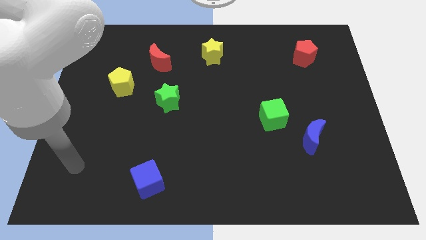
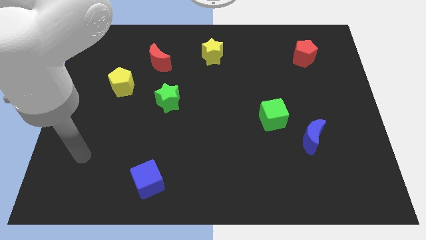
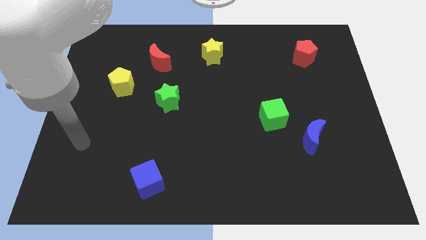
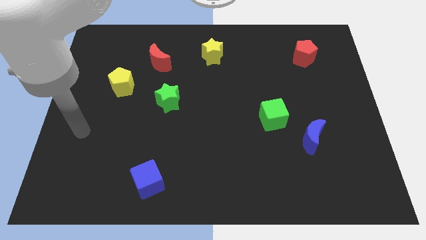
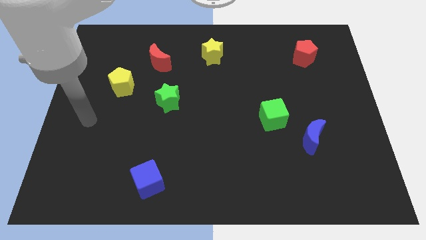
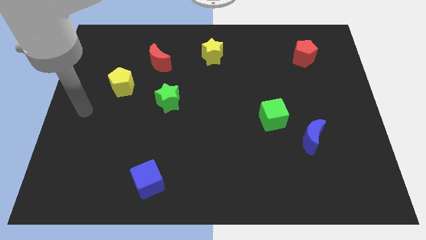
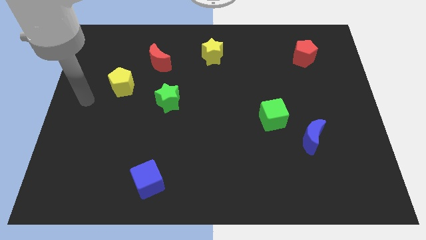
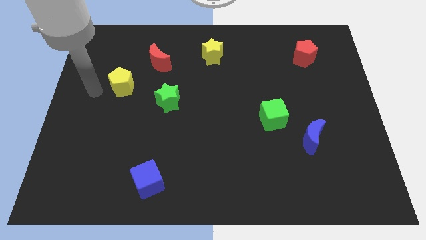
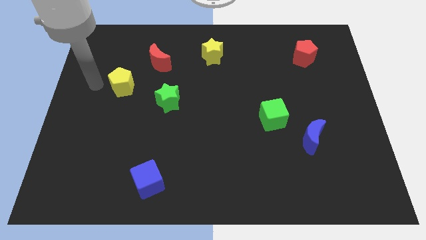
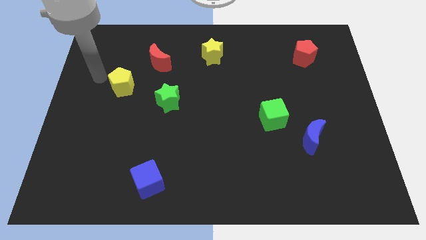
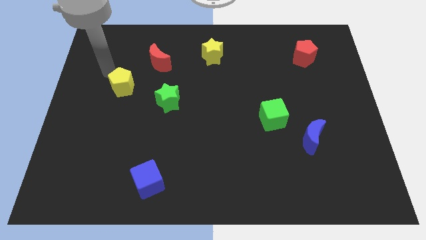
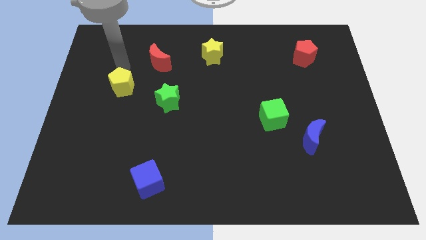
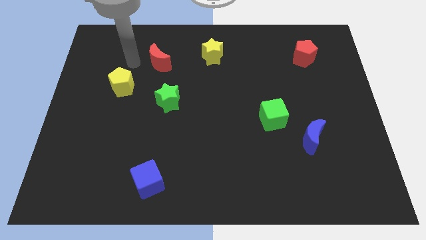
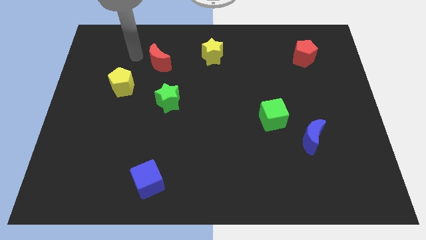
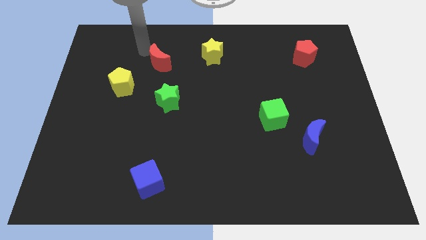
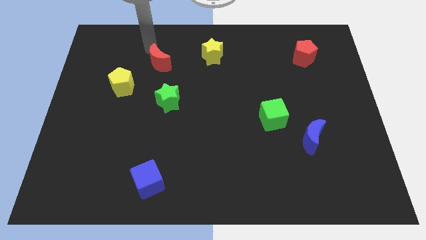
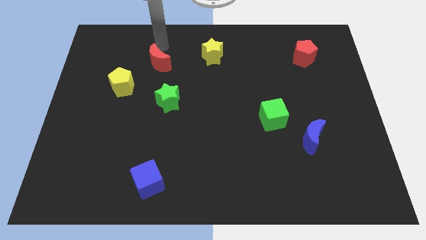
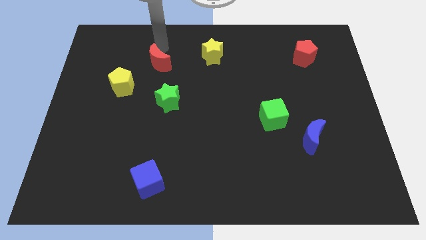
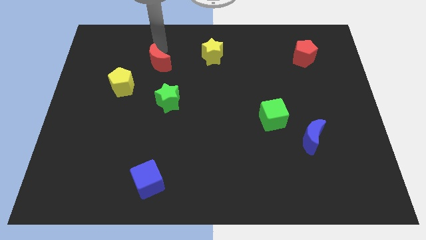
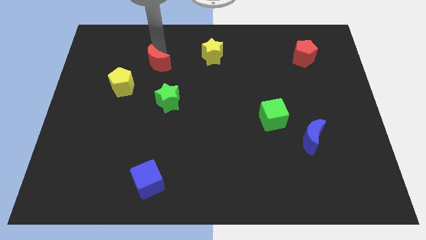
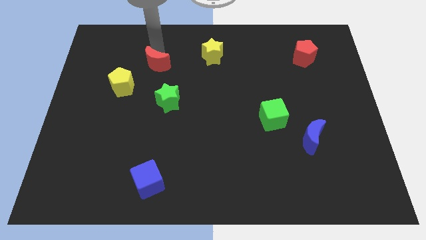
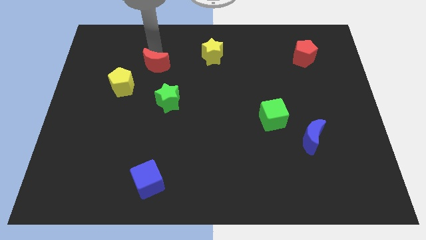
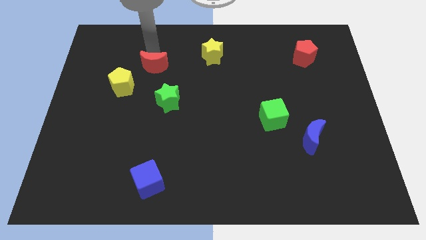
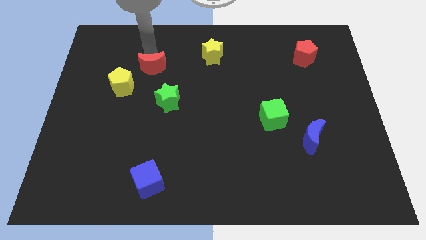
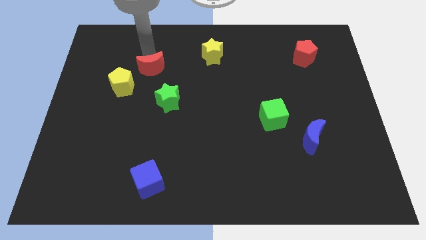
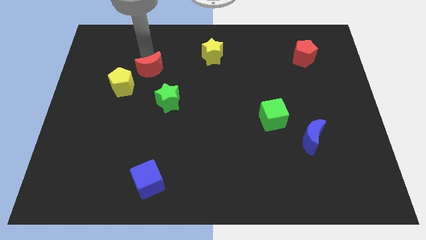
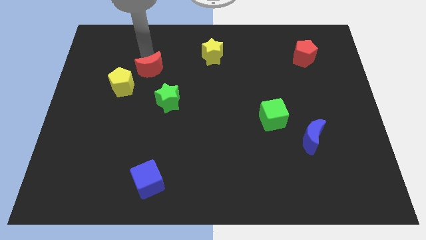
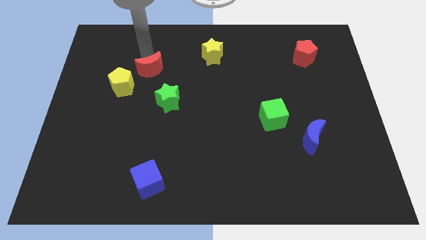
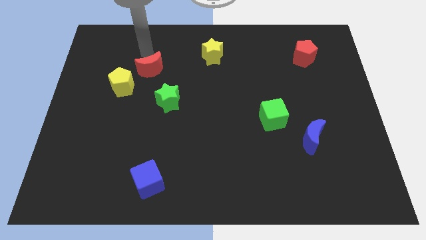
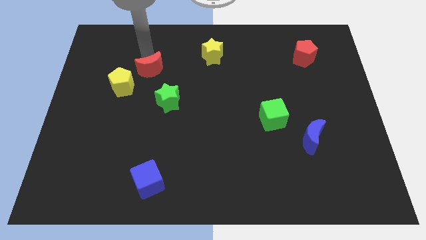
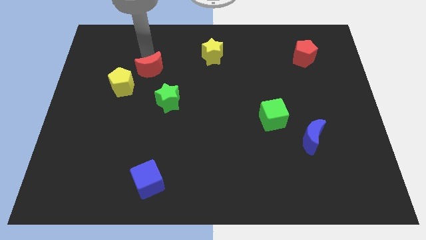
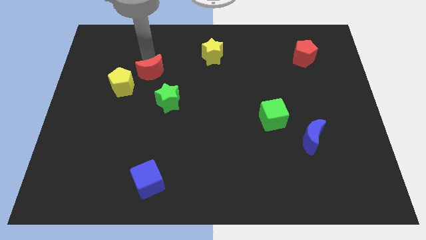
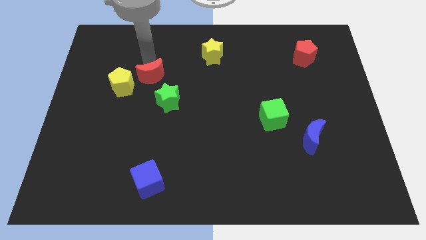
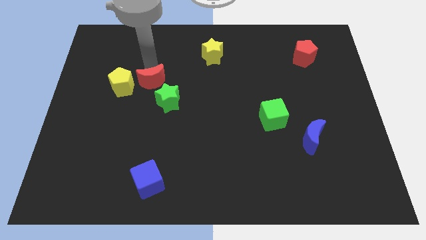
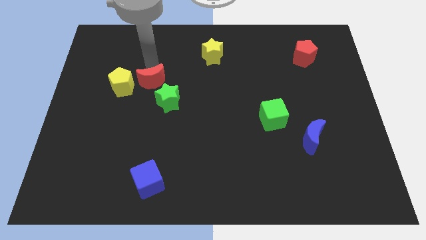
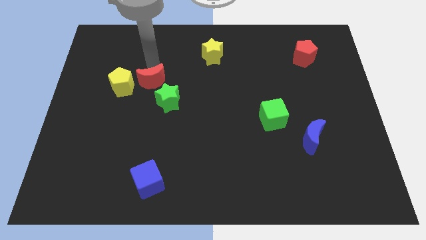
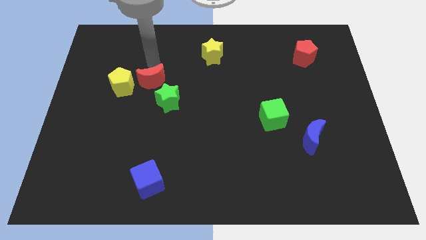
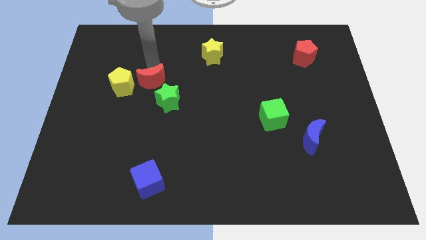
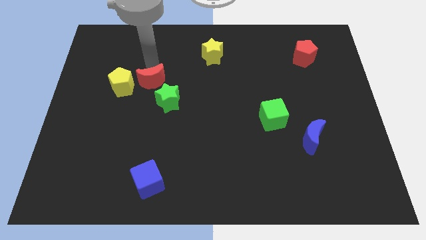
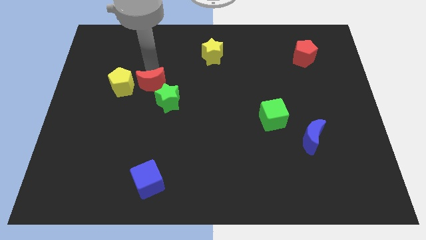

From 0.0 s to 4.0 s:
push the red moon downwards a little

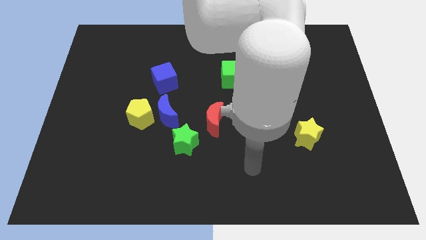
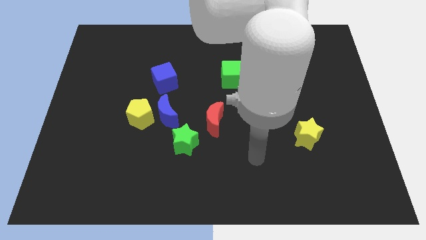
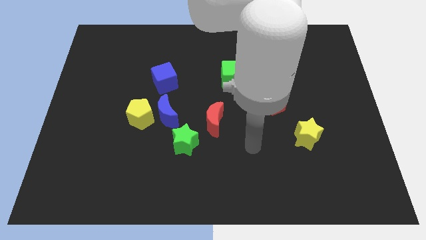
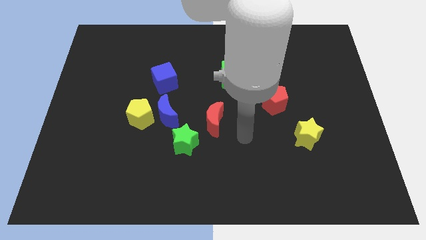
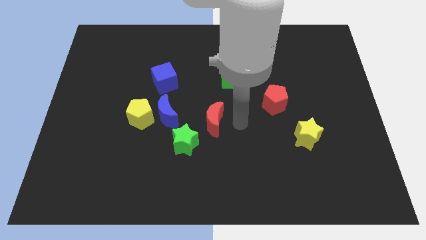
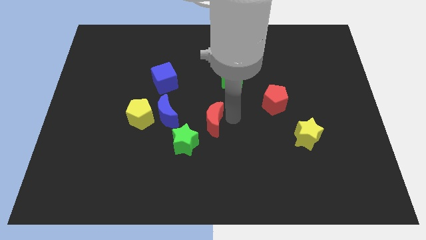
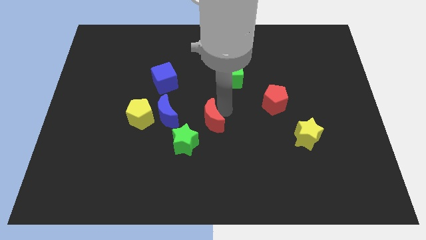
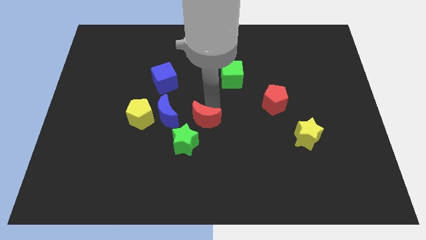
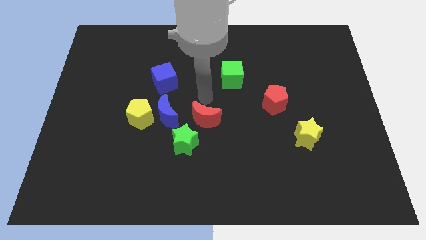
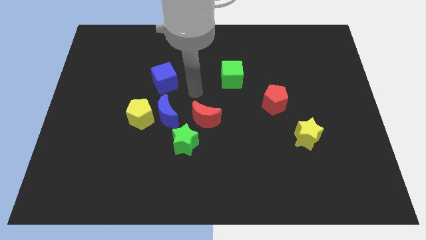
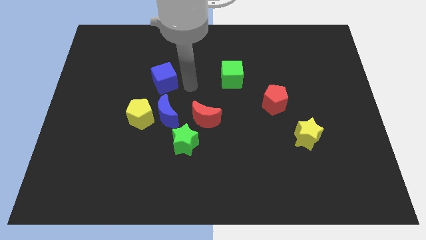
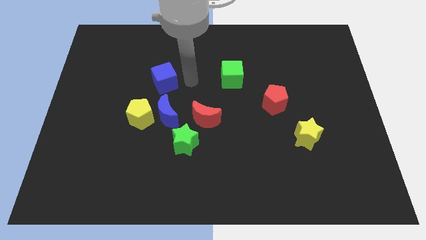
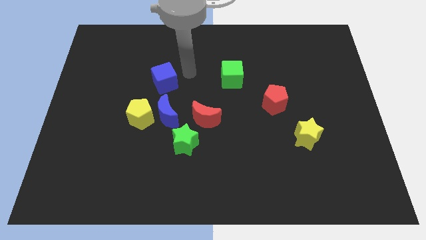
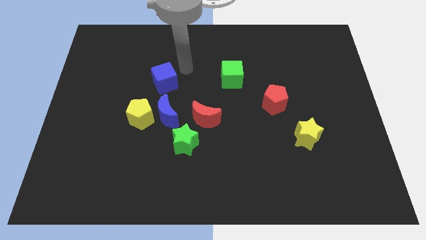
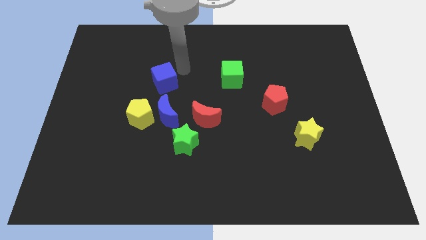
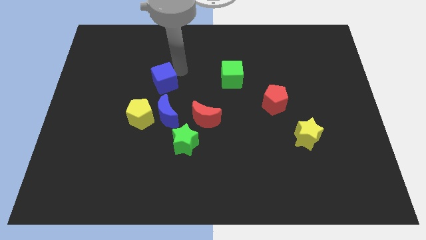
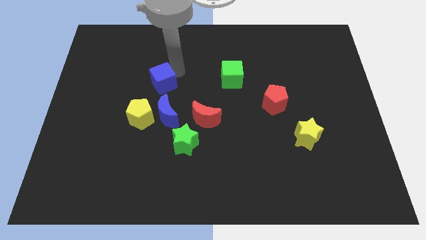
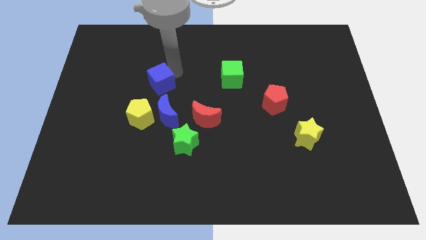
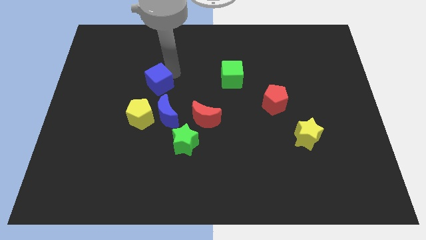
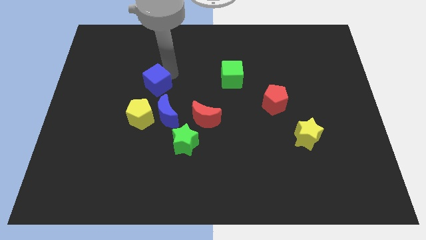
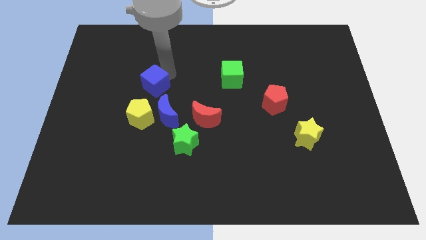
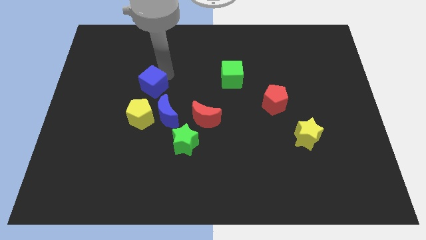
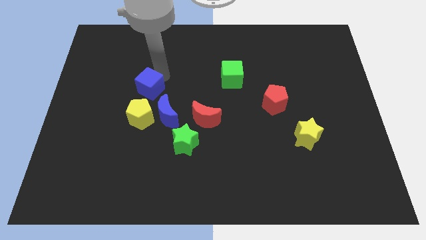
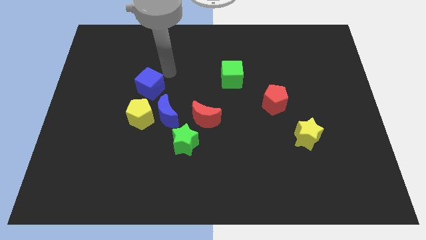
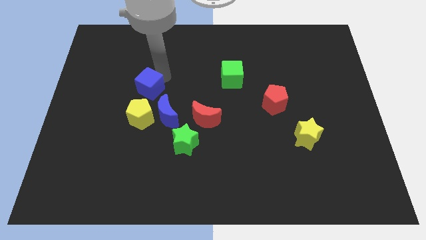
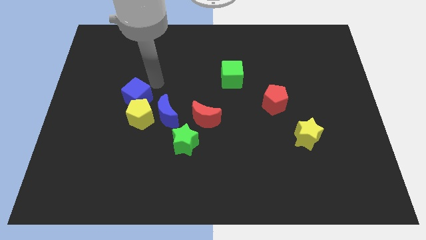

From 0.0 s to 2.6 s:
slightly move the blue cube diagonally downwards and to the left

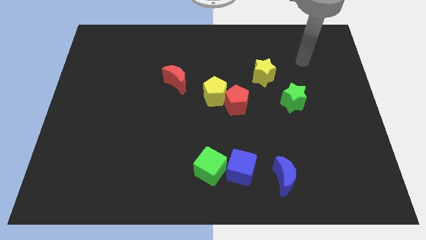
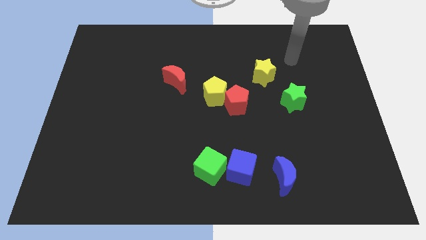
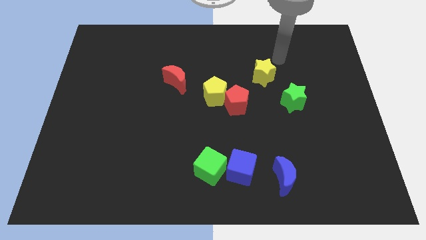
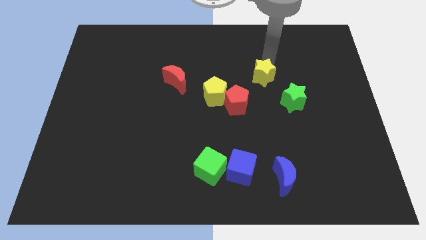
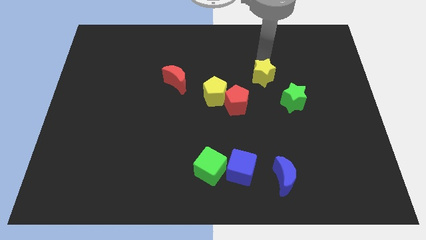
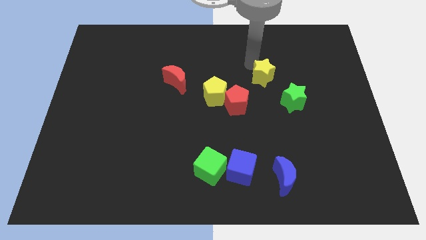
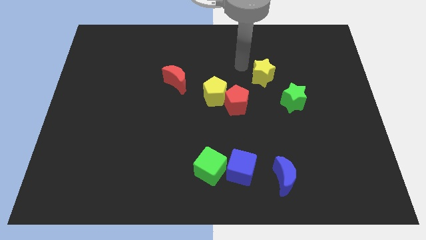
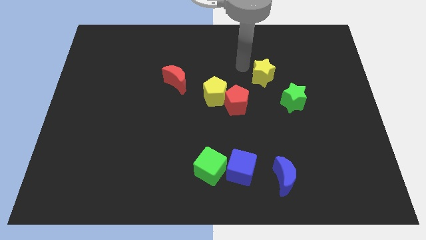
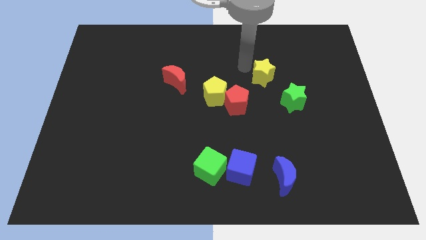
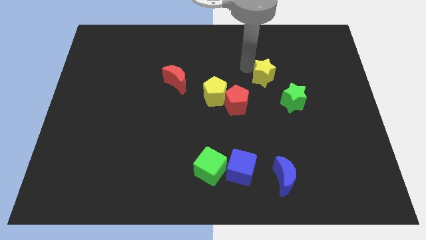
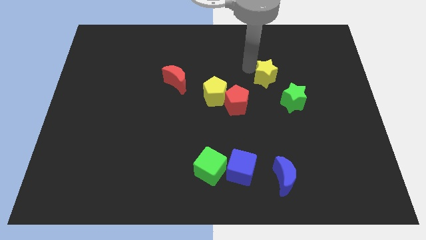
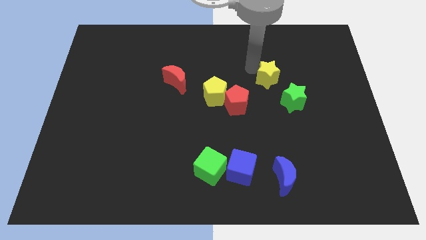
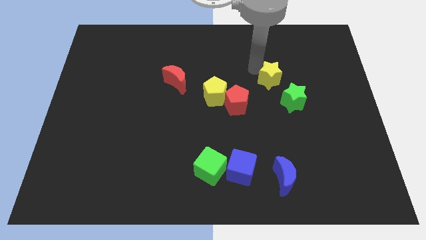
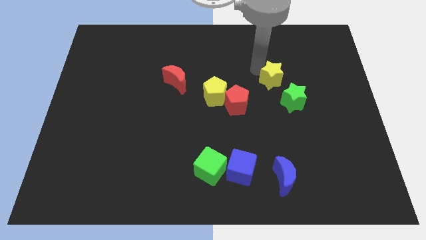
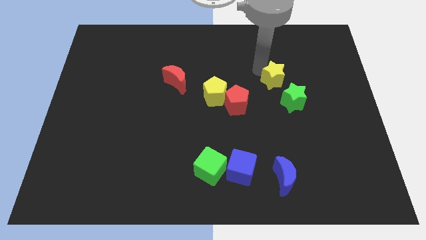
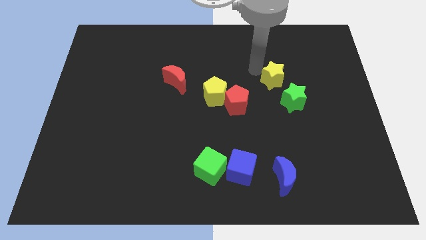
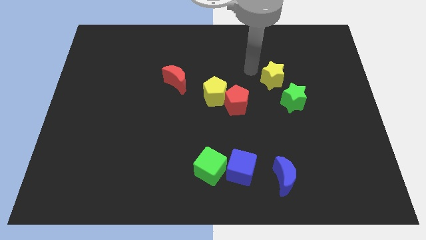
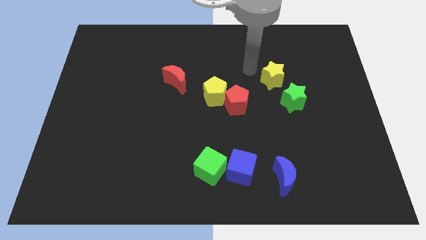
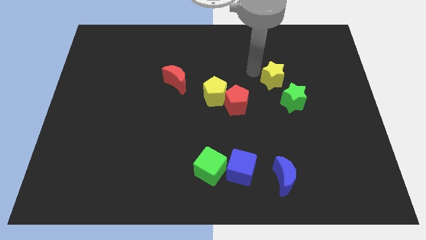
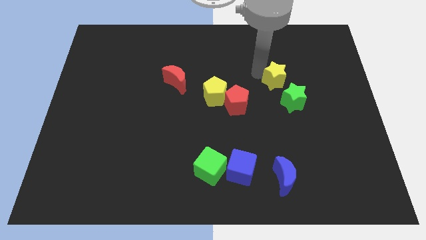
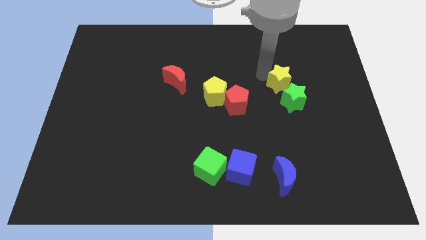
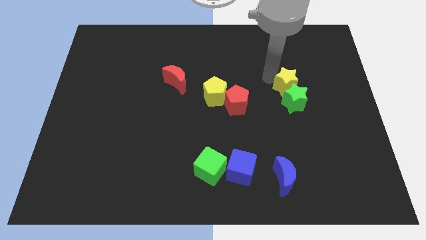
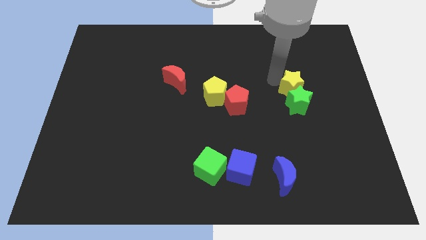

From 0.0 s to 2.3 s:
push the yellow star down and to the right slightly
